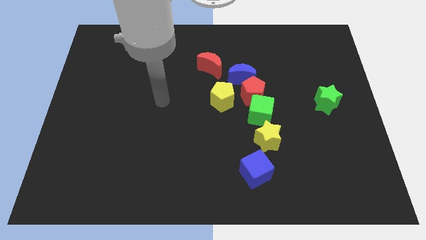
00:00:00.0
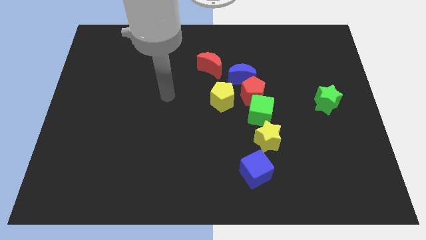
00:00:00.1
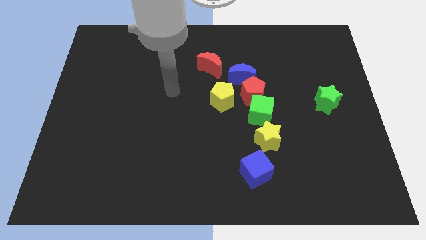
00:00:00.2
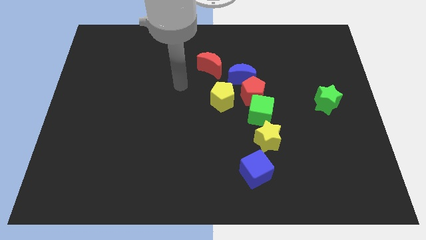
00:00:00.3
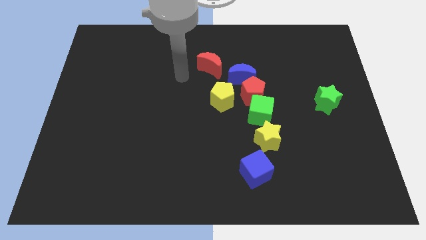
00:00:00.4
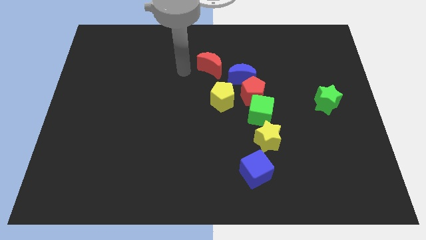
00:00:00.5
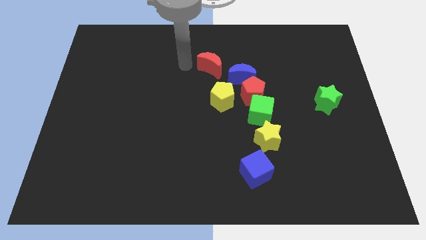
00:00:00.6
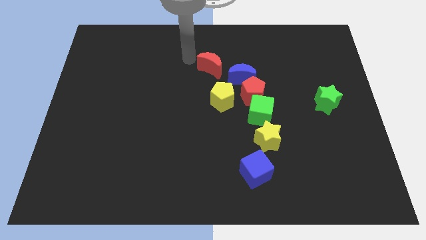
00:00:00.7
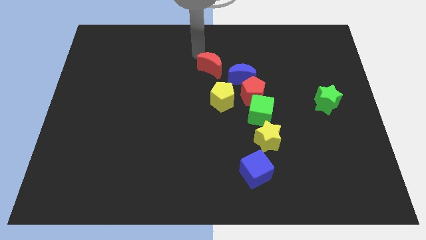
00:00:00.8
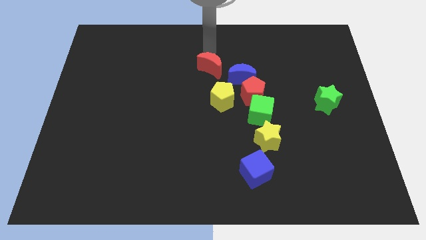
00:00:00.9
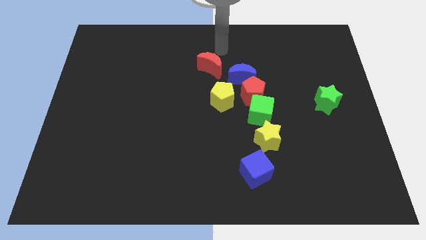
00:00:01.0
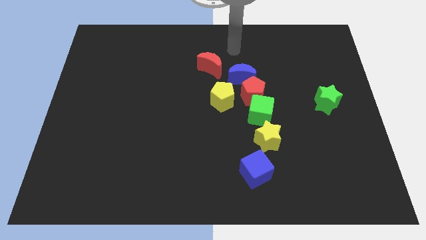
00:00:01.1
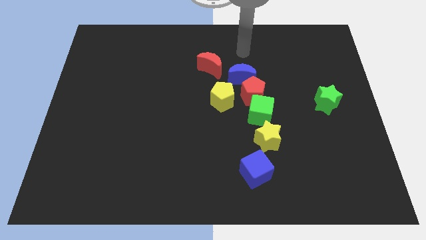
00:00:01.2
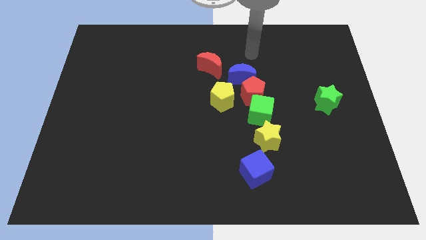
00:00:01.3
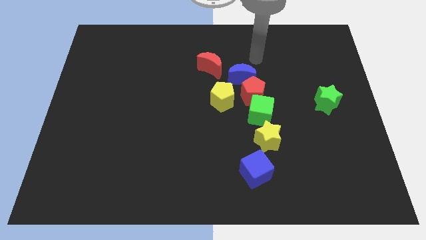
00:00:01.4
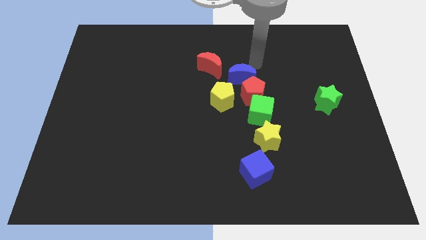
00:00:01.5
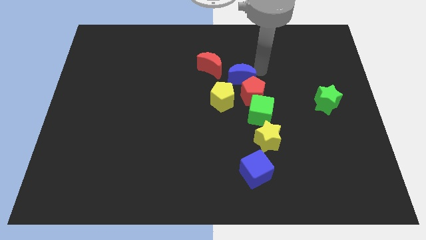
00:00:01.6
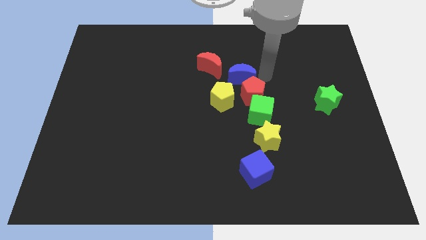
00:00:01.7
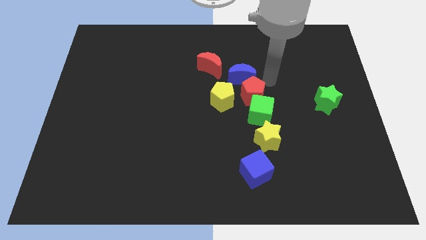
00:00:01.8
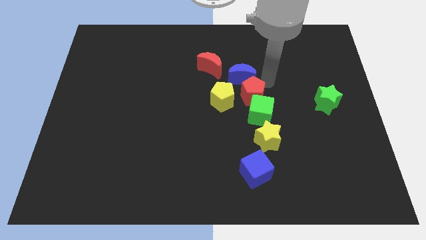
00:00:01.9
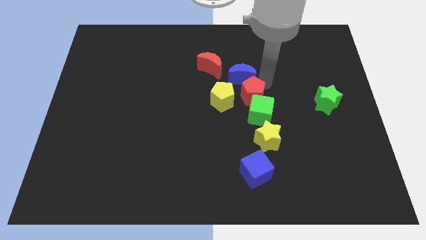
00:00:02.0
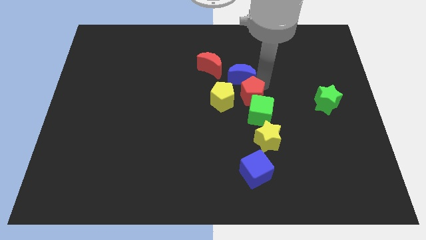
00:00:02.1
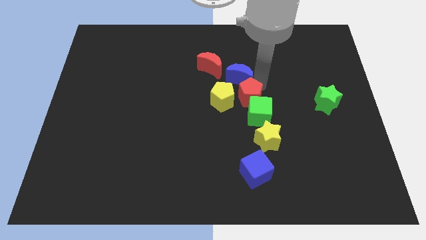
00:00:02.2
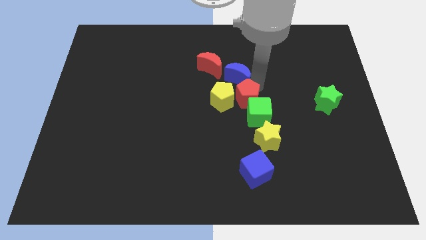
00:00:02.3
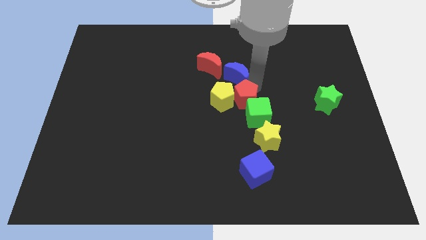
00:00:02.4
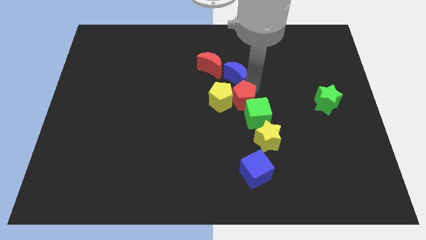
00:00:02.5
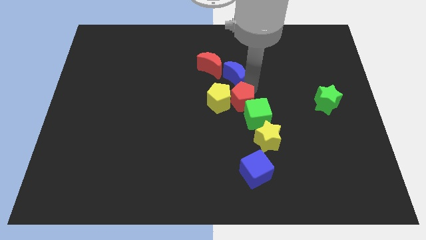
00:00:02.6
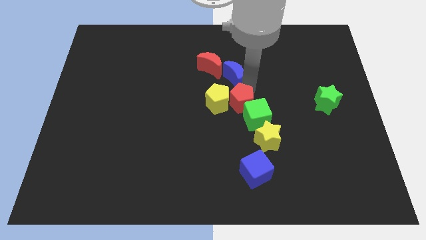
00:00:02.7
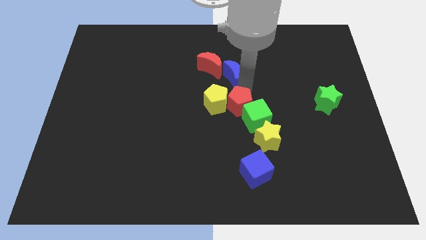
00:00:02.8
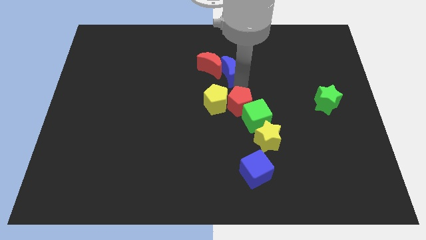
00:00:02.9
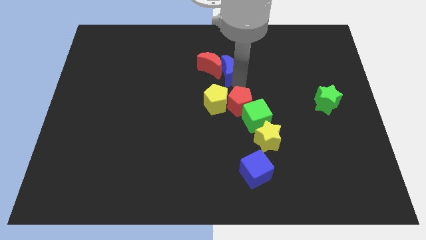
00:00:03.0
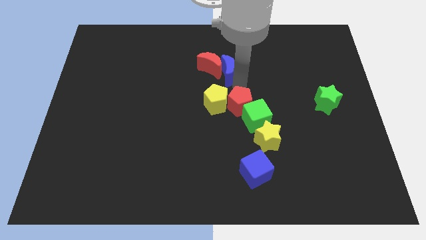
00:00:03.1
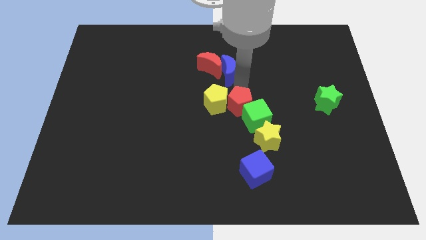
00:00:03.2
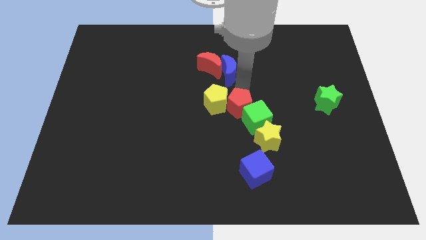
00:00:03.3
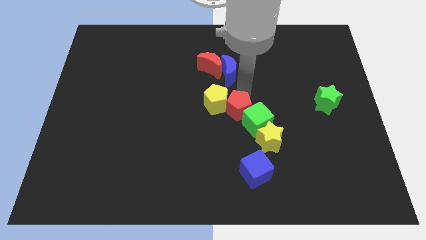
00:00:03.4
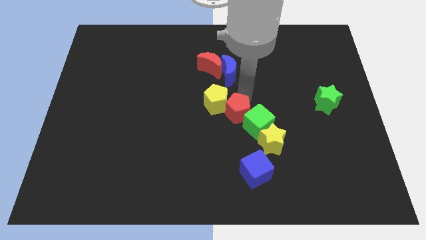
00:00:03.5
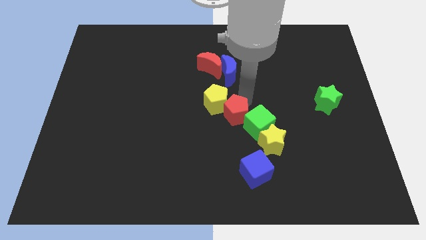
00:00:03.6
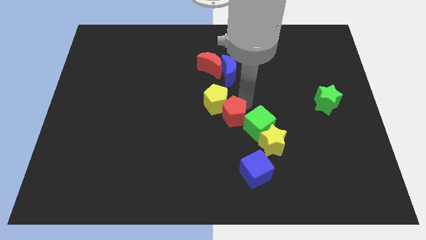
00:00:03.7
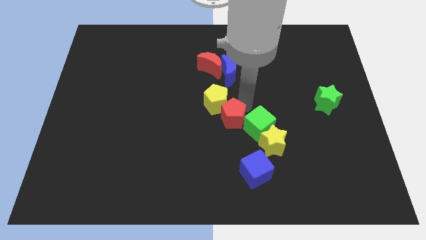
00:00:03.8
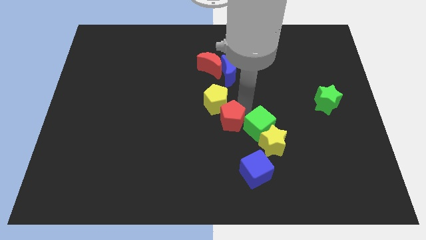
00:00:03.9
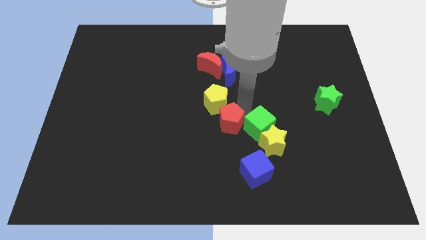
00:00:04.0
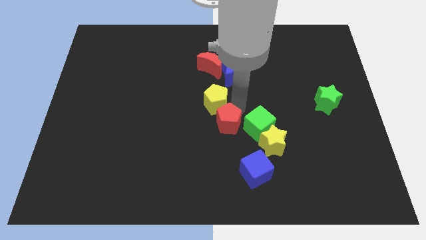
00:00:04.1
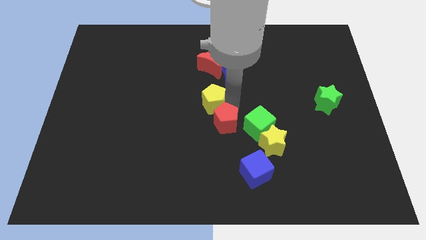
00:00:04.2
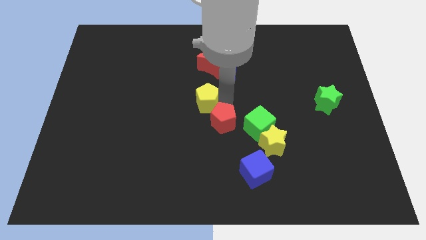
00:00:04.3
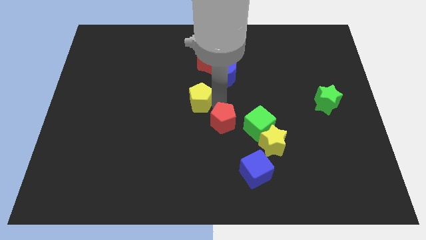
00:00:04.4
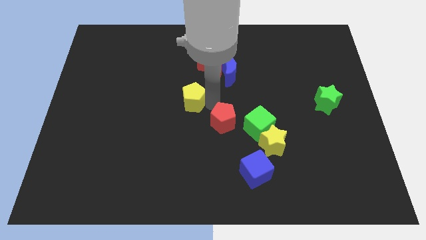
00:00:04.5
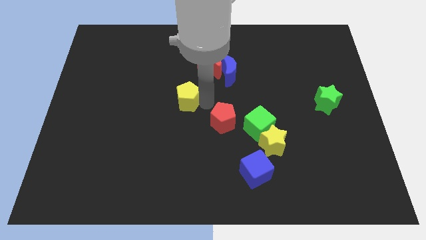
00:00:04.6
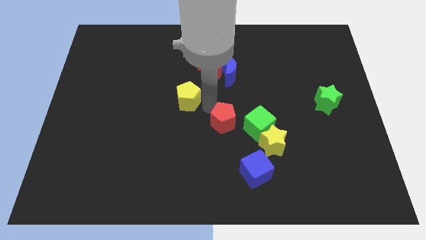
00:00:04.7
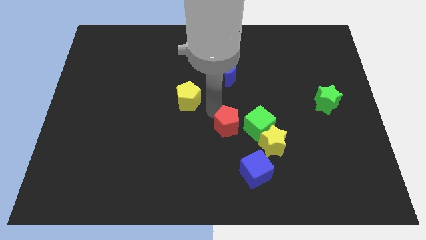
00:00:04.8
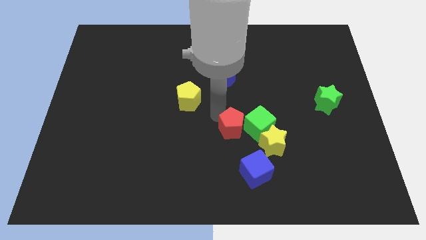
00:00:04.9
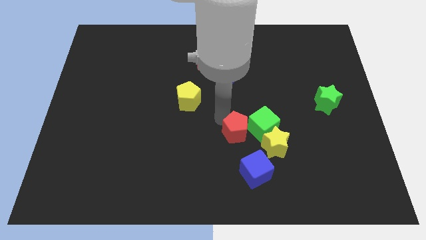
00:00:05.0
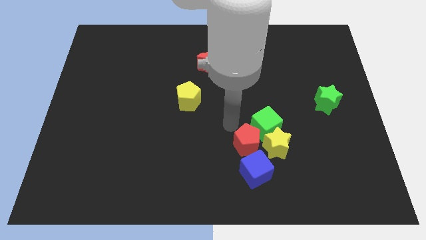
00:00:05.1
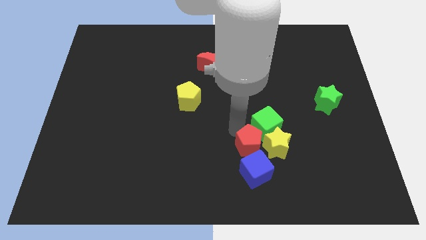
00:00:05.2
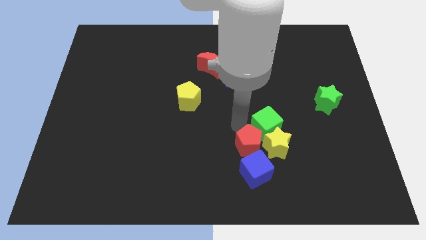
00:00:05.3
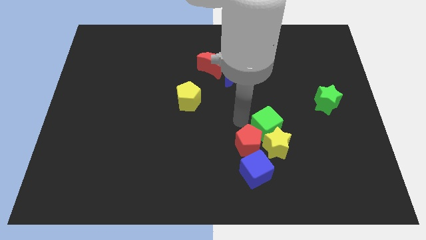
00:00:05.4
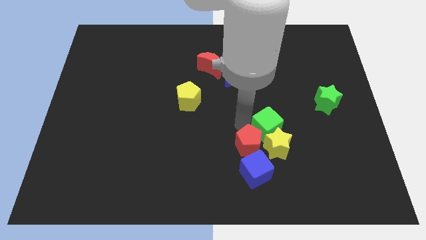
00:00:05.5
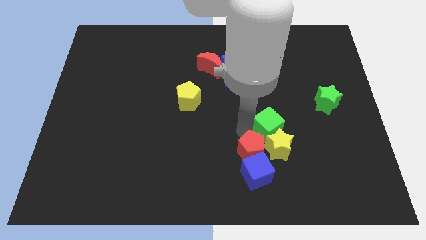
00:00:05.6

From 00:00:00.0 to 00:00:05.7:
move the red pentagon towards the blue cube

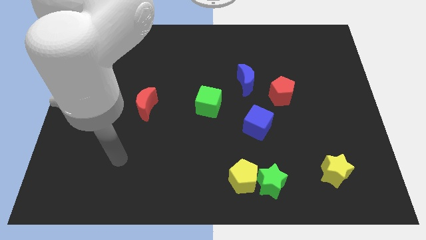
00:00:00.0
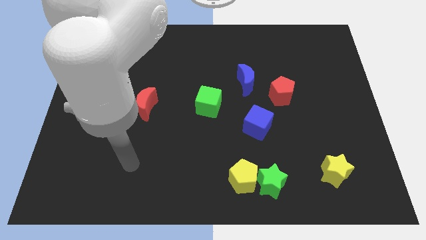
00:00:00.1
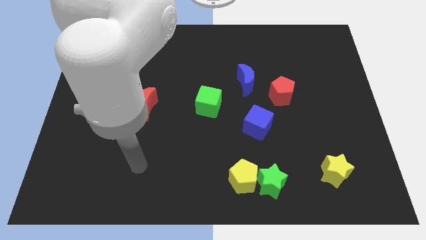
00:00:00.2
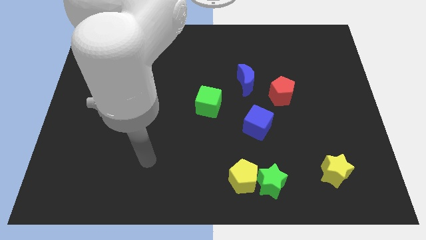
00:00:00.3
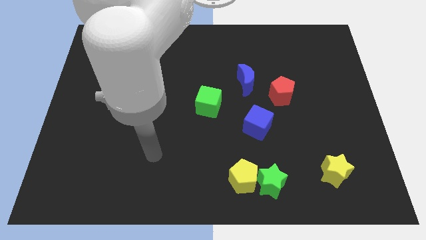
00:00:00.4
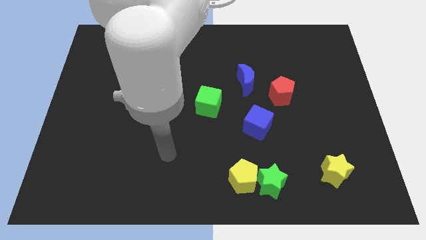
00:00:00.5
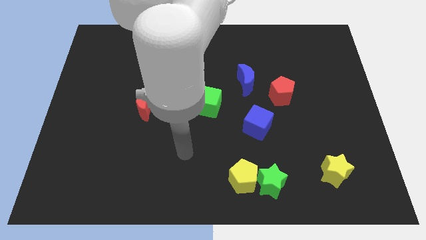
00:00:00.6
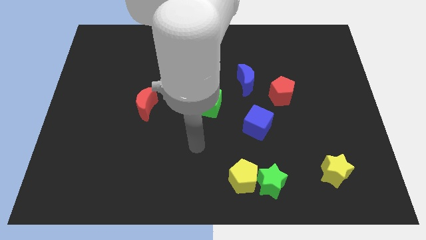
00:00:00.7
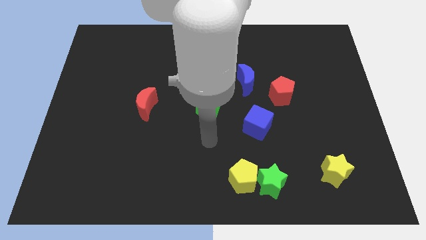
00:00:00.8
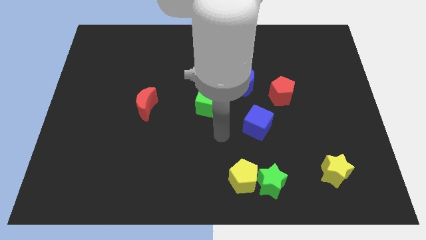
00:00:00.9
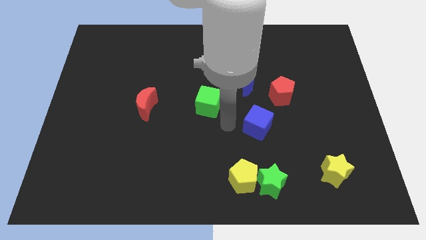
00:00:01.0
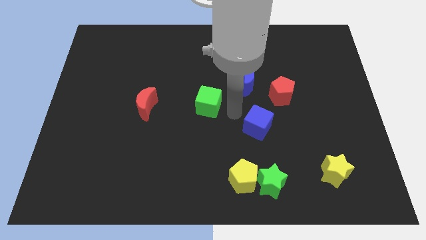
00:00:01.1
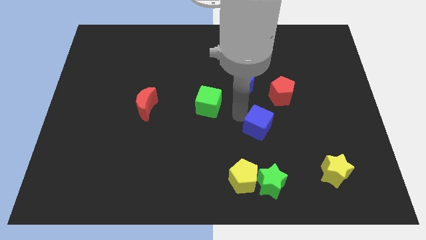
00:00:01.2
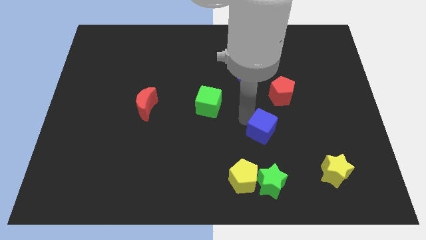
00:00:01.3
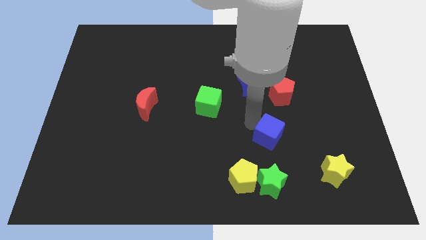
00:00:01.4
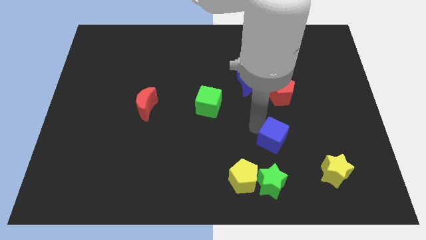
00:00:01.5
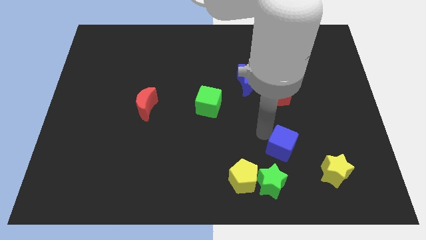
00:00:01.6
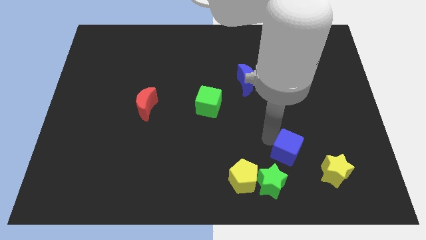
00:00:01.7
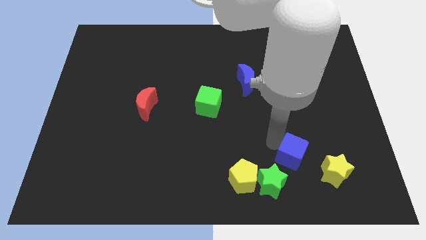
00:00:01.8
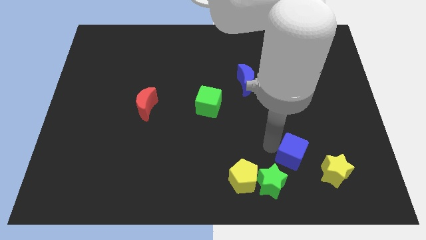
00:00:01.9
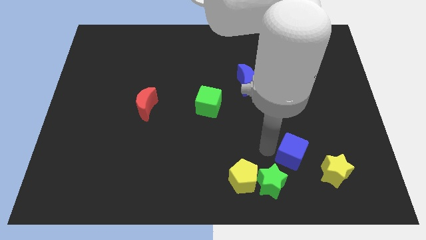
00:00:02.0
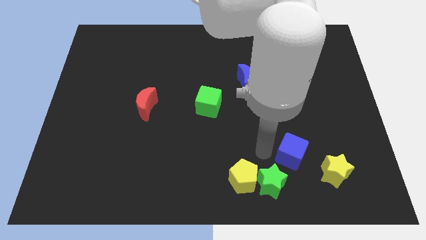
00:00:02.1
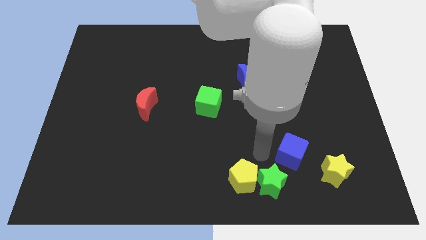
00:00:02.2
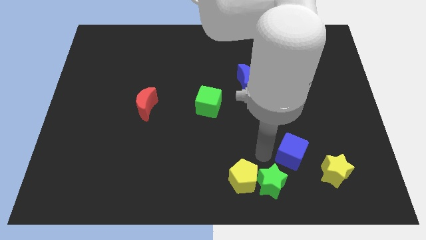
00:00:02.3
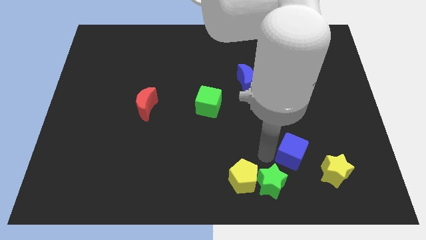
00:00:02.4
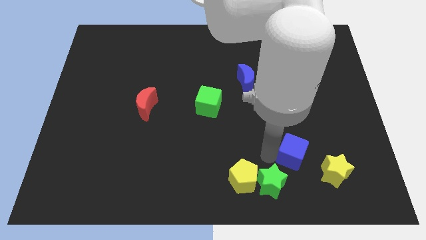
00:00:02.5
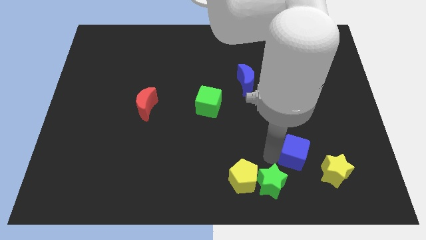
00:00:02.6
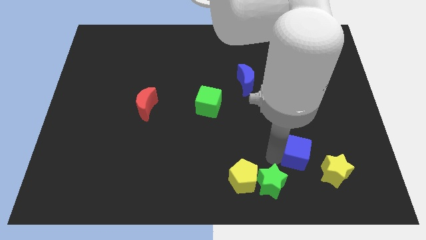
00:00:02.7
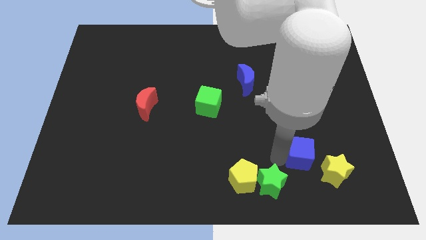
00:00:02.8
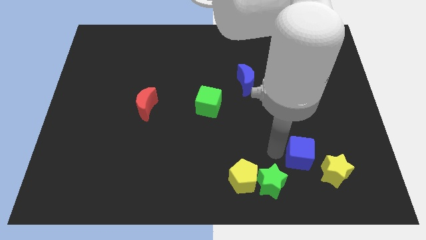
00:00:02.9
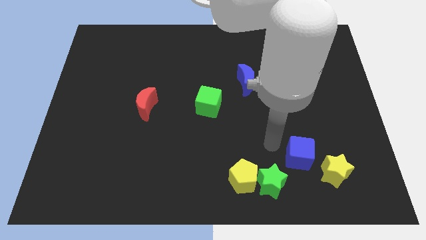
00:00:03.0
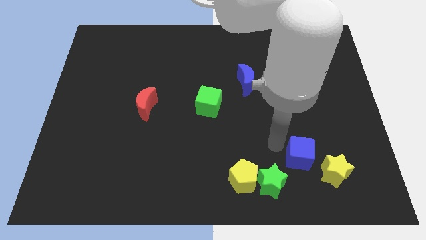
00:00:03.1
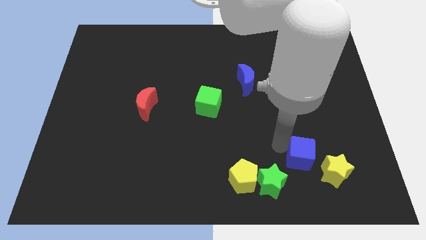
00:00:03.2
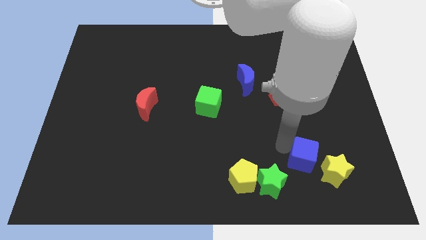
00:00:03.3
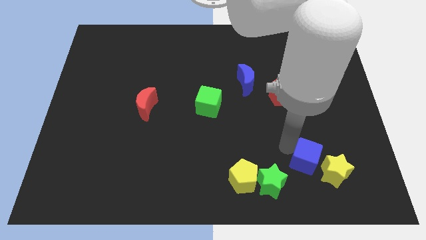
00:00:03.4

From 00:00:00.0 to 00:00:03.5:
put the blue cube to the yellow star
